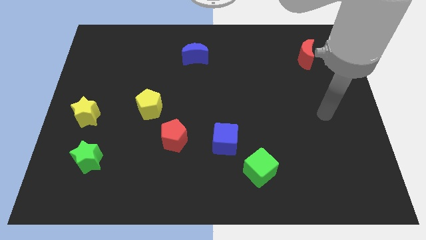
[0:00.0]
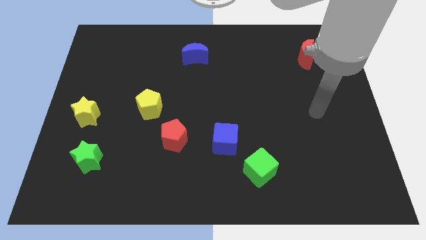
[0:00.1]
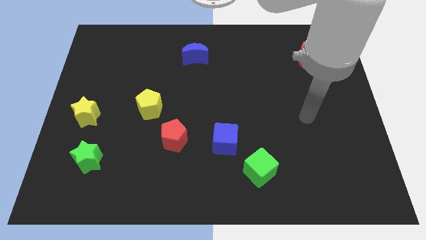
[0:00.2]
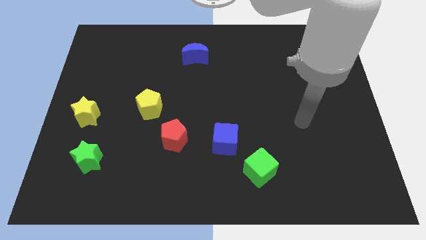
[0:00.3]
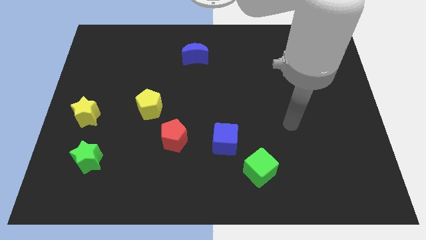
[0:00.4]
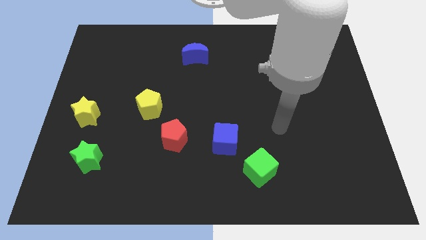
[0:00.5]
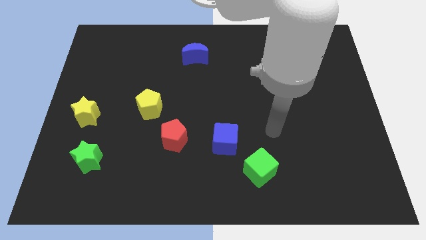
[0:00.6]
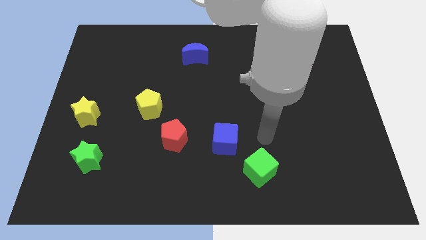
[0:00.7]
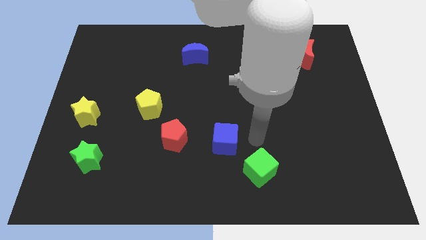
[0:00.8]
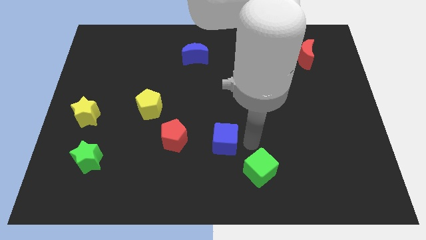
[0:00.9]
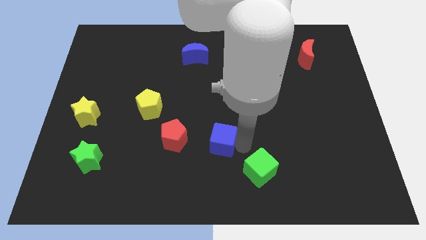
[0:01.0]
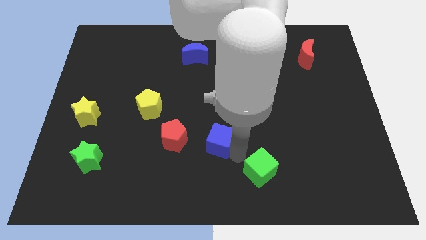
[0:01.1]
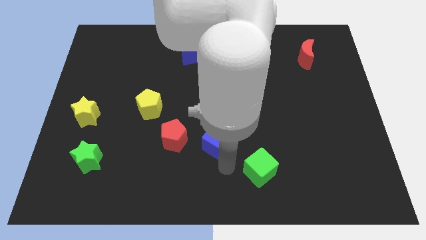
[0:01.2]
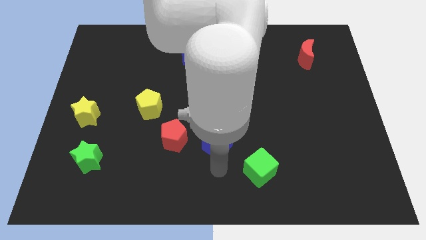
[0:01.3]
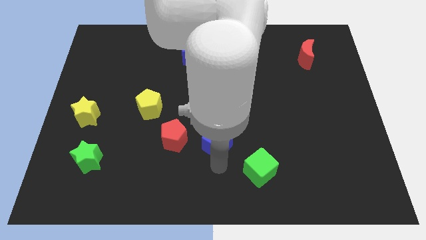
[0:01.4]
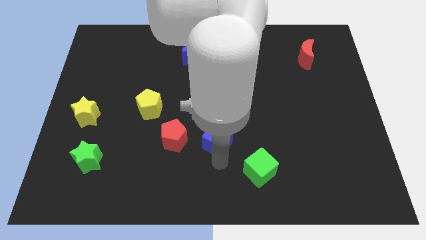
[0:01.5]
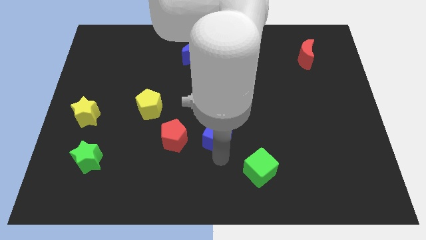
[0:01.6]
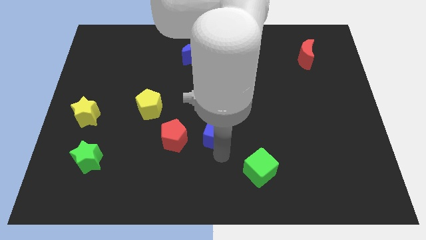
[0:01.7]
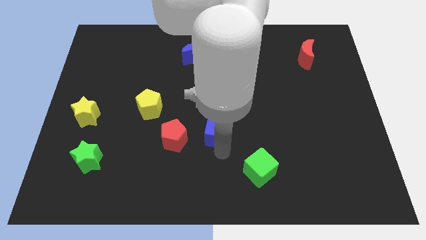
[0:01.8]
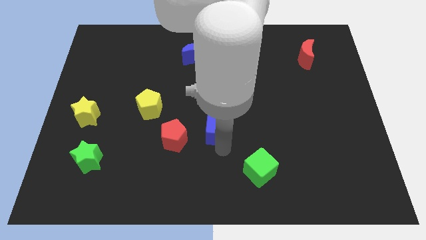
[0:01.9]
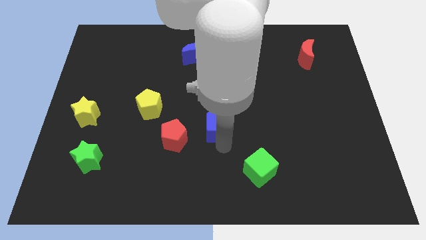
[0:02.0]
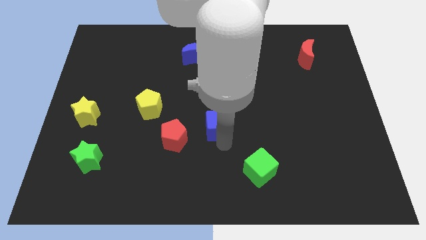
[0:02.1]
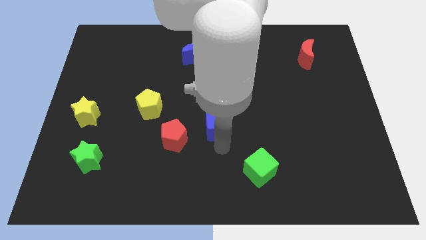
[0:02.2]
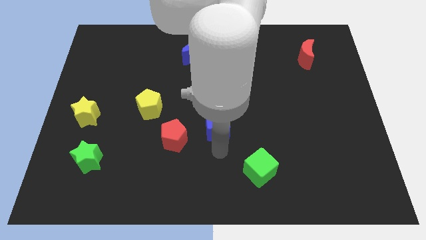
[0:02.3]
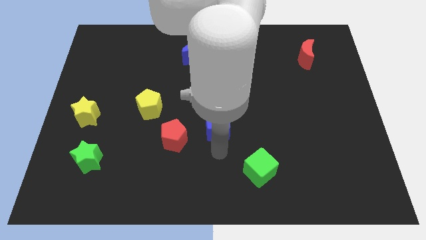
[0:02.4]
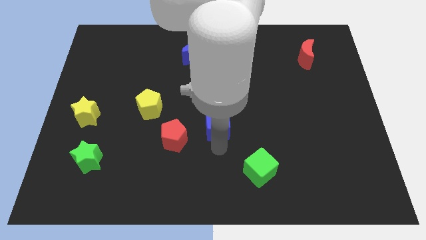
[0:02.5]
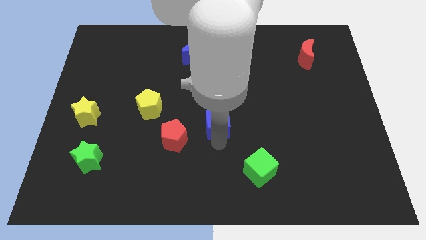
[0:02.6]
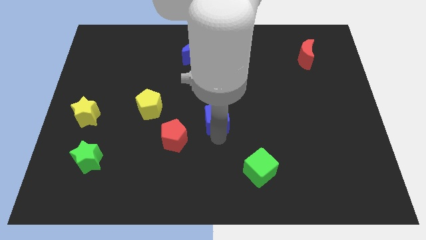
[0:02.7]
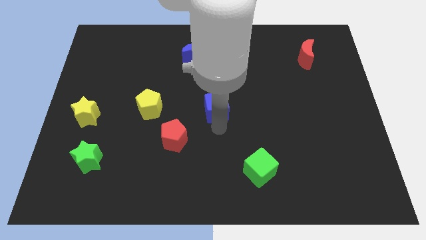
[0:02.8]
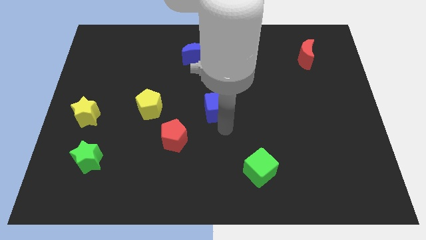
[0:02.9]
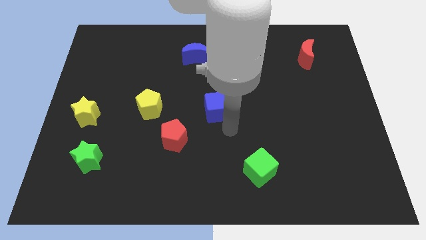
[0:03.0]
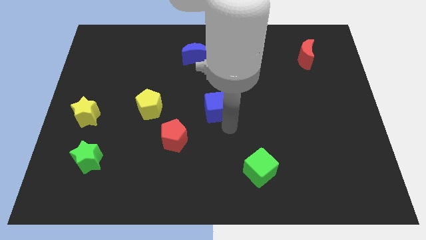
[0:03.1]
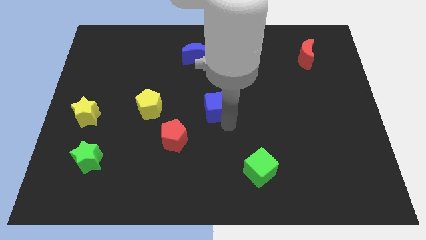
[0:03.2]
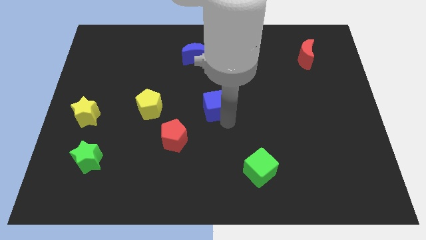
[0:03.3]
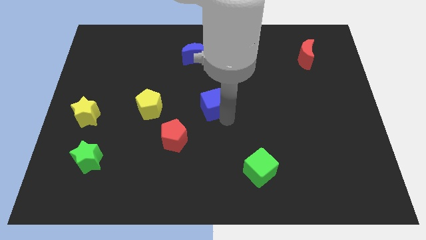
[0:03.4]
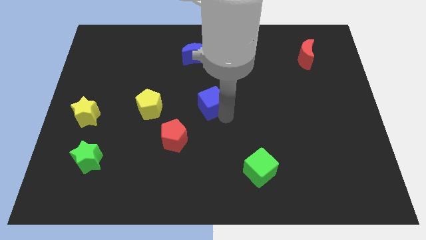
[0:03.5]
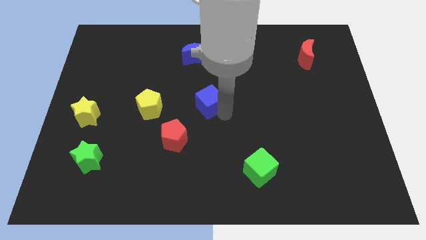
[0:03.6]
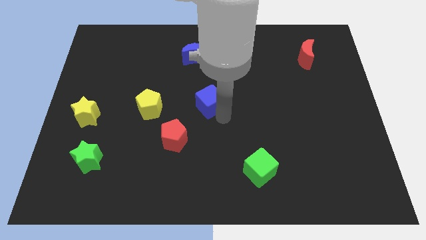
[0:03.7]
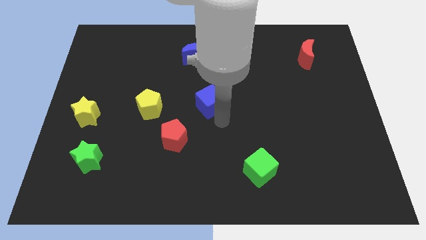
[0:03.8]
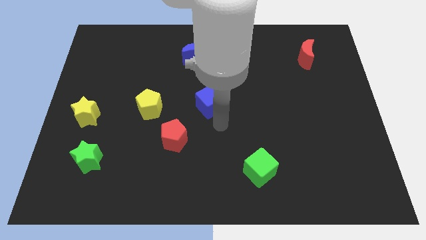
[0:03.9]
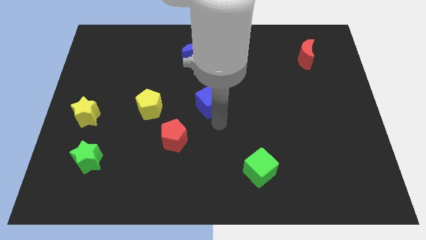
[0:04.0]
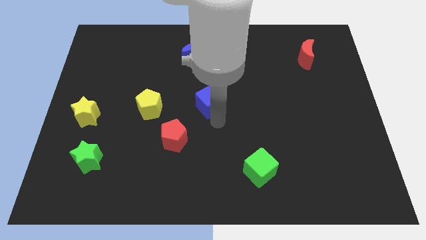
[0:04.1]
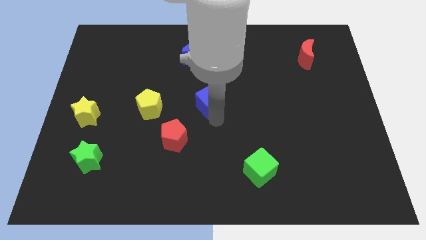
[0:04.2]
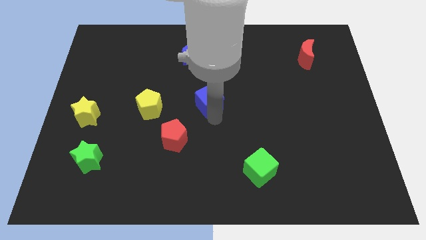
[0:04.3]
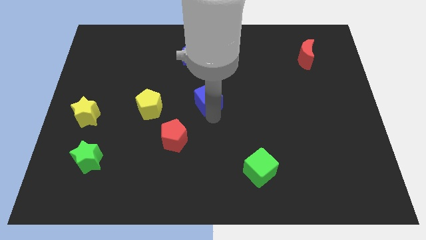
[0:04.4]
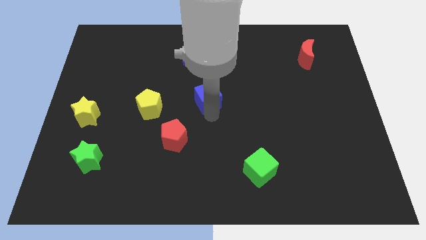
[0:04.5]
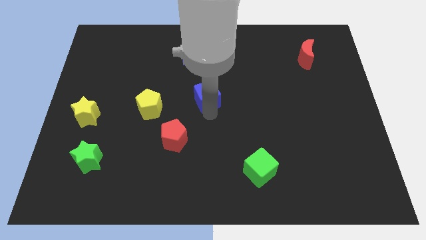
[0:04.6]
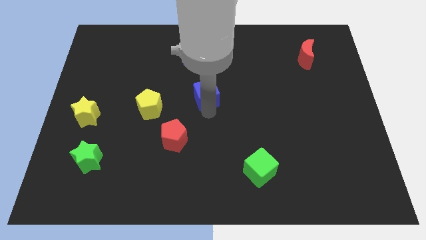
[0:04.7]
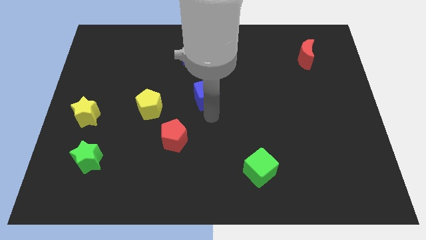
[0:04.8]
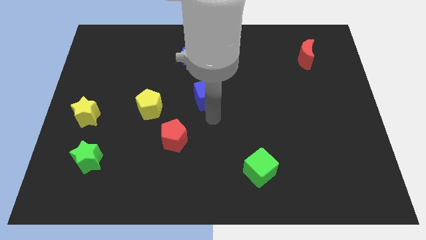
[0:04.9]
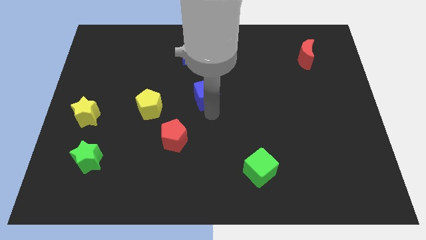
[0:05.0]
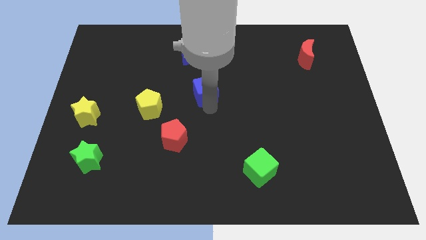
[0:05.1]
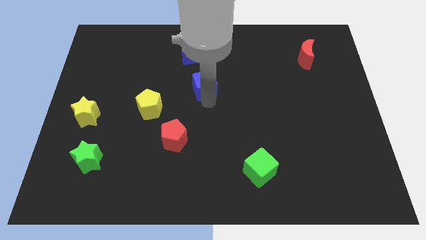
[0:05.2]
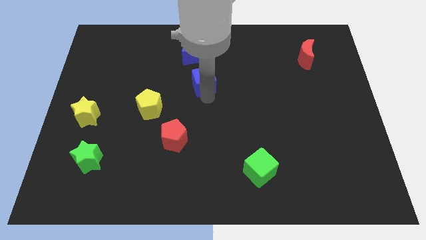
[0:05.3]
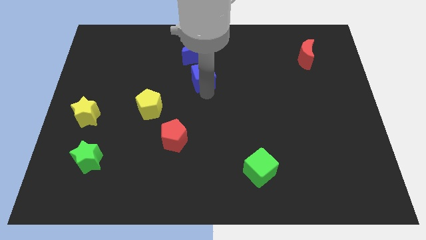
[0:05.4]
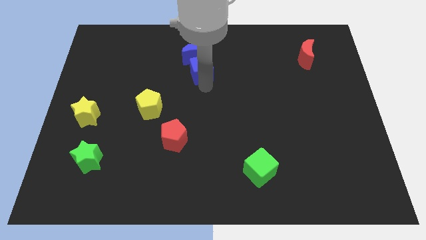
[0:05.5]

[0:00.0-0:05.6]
push the blue cube close to the blue moon

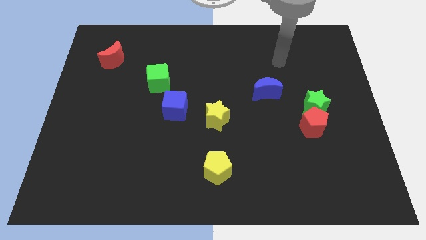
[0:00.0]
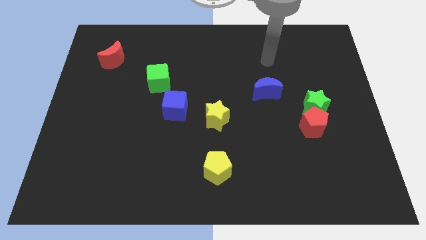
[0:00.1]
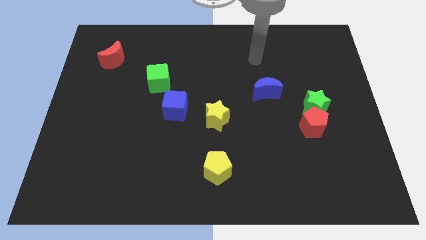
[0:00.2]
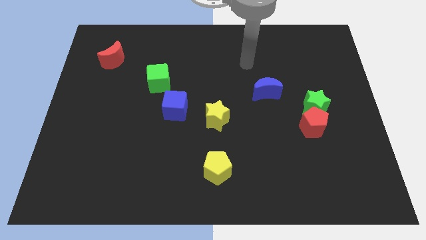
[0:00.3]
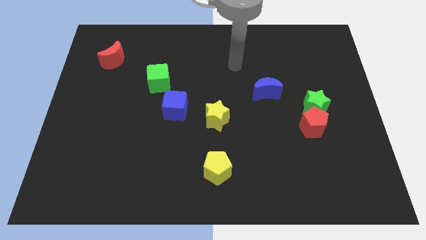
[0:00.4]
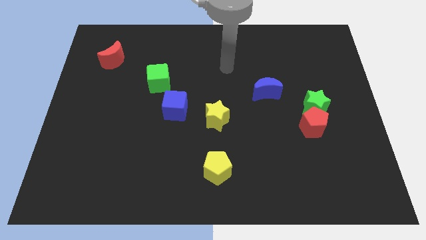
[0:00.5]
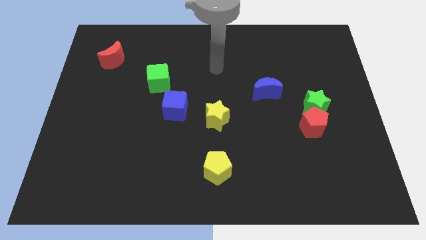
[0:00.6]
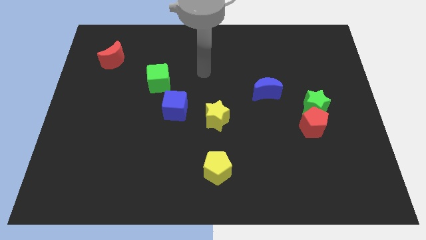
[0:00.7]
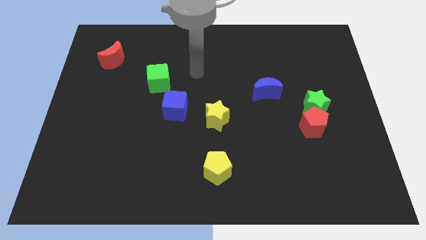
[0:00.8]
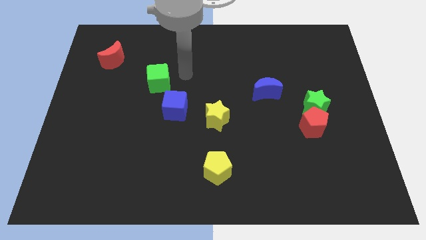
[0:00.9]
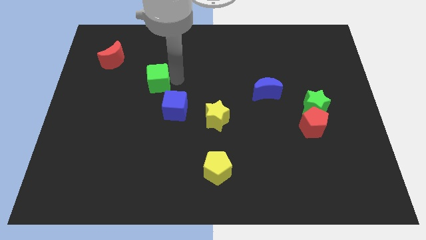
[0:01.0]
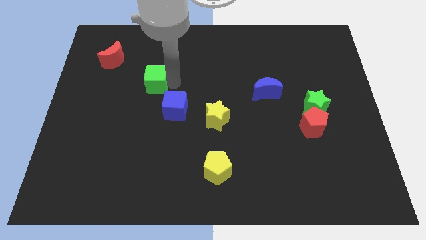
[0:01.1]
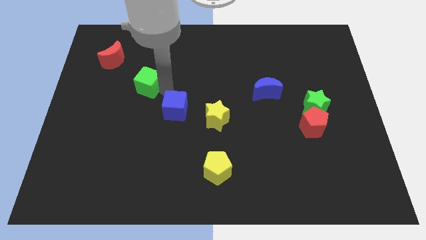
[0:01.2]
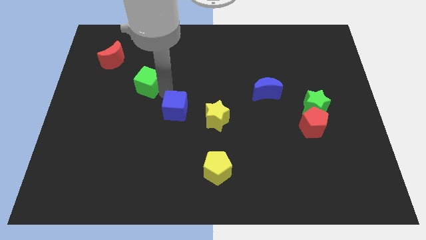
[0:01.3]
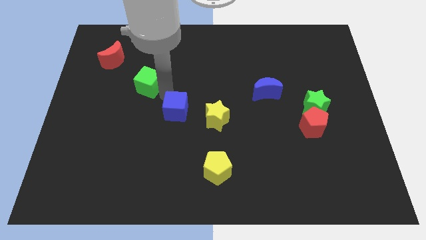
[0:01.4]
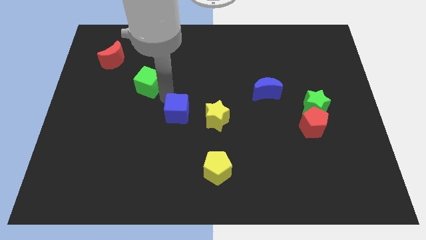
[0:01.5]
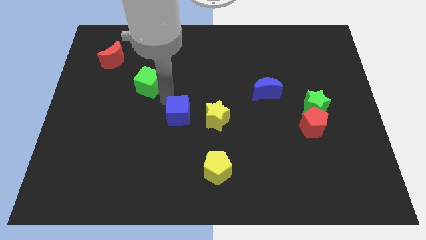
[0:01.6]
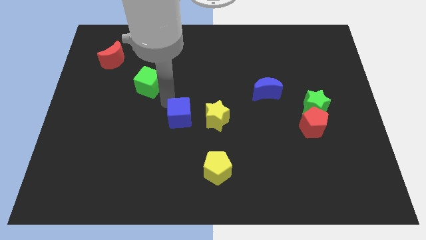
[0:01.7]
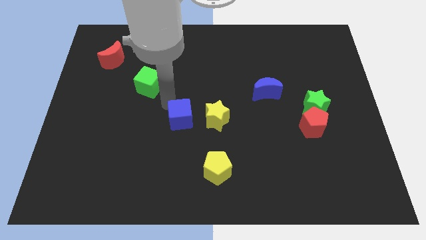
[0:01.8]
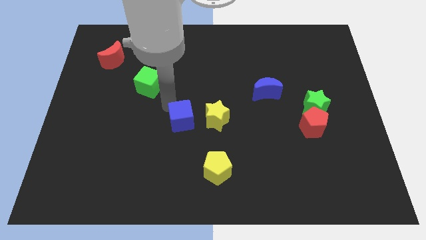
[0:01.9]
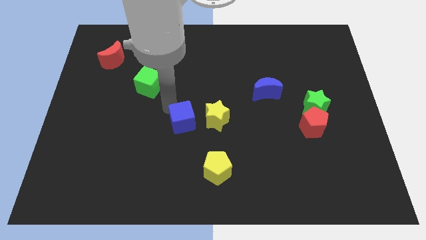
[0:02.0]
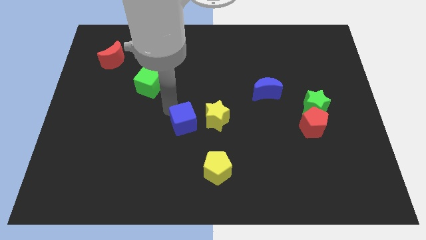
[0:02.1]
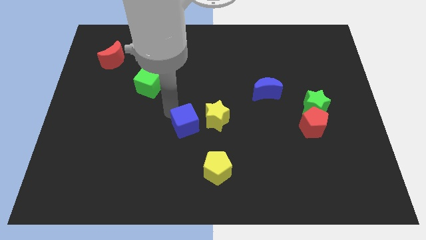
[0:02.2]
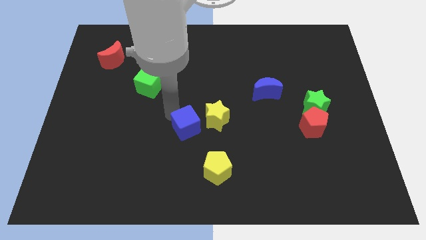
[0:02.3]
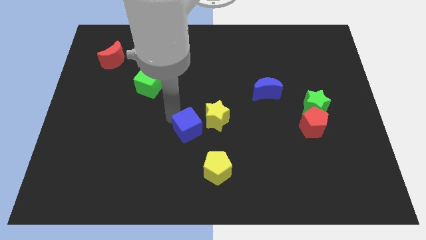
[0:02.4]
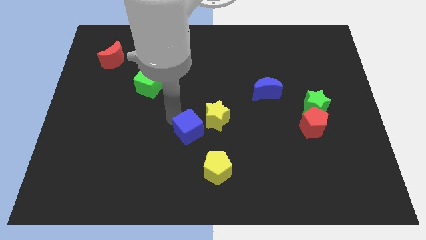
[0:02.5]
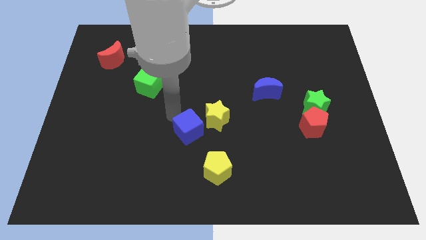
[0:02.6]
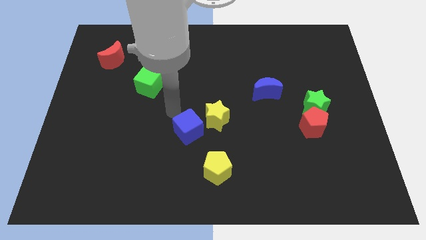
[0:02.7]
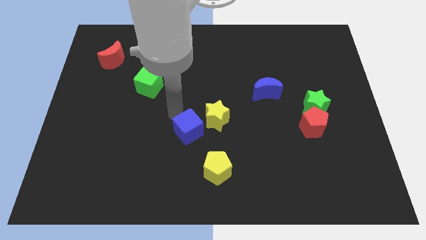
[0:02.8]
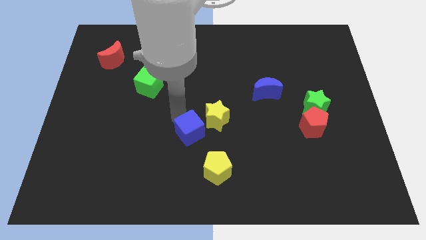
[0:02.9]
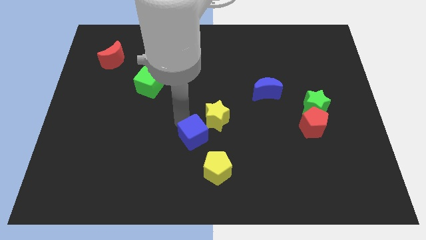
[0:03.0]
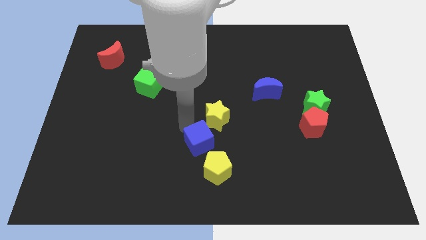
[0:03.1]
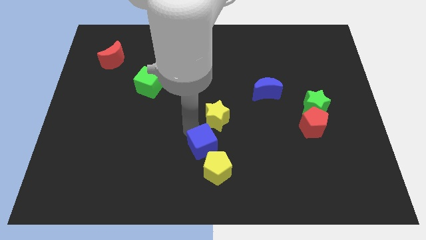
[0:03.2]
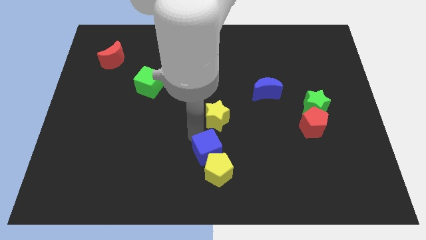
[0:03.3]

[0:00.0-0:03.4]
push the blue cube towards the yellow pentagon
